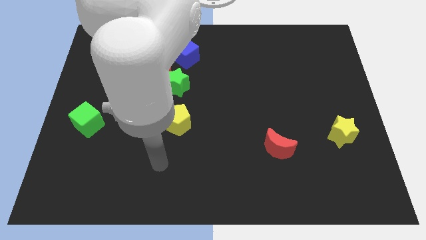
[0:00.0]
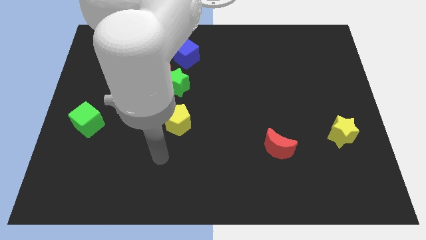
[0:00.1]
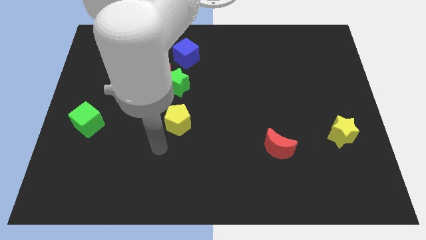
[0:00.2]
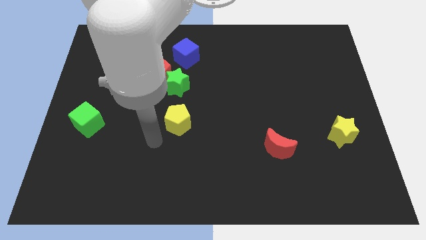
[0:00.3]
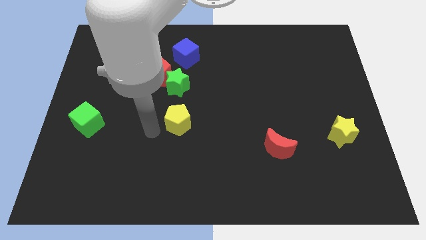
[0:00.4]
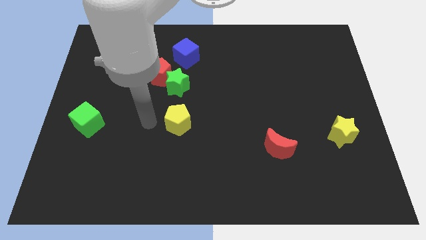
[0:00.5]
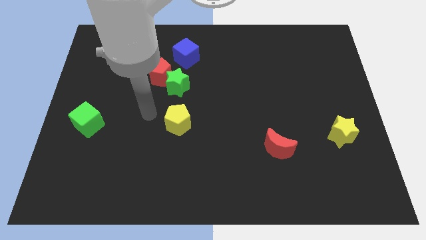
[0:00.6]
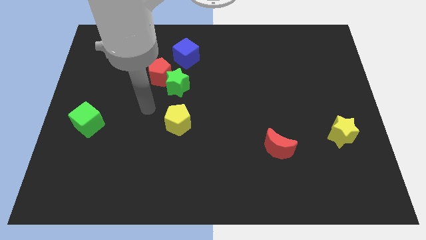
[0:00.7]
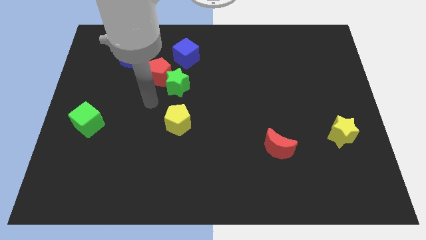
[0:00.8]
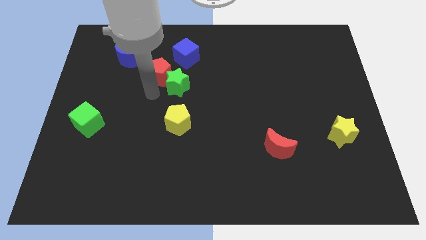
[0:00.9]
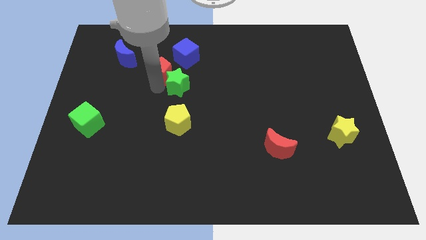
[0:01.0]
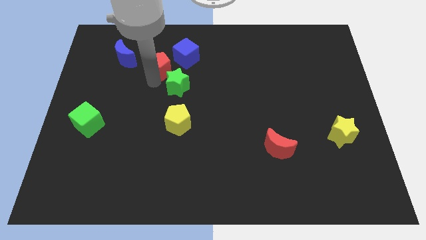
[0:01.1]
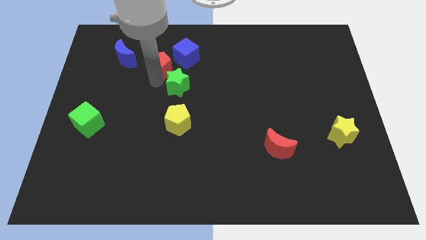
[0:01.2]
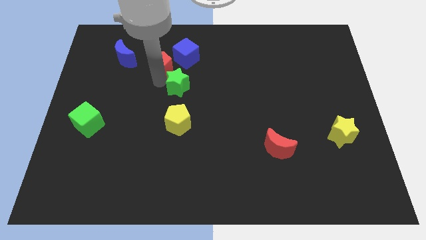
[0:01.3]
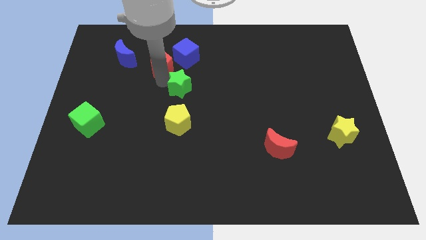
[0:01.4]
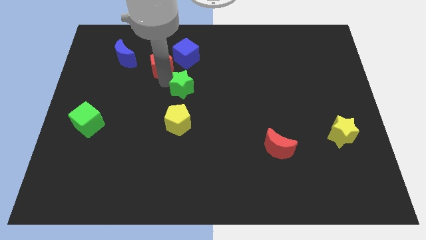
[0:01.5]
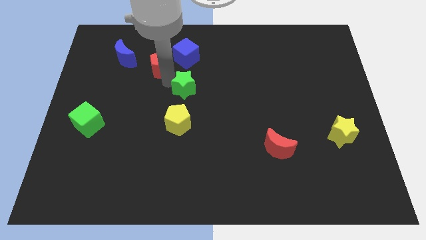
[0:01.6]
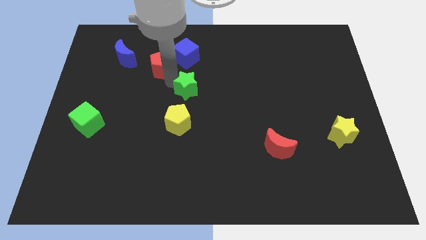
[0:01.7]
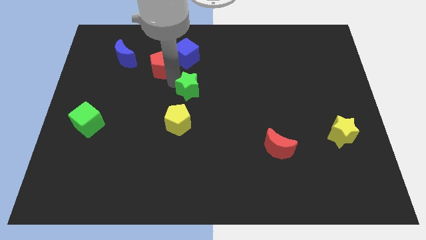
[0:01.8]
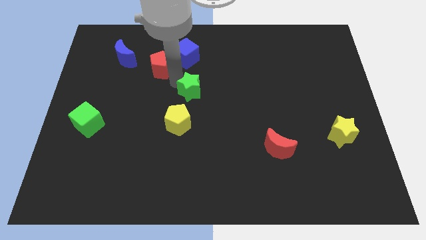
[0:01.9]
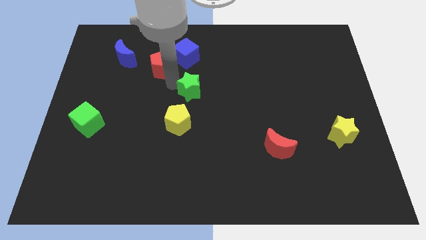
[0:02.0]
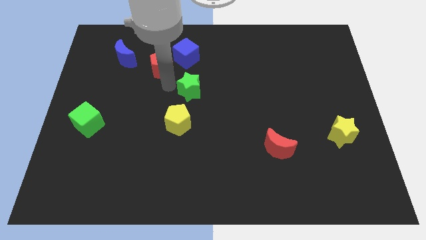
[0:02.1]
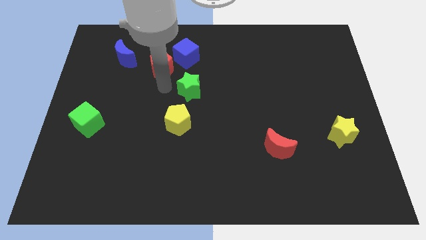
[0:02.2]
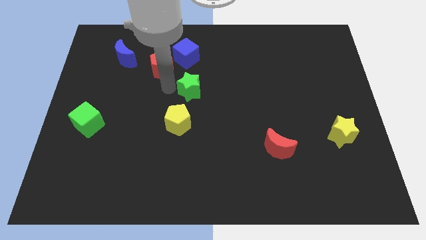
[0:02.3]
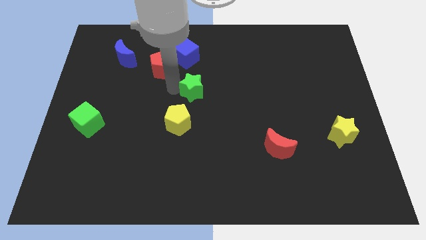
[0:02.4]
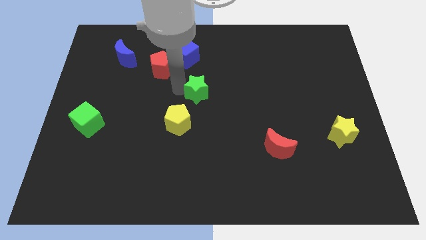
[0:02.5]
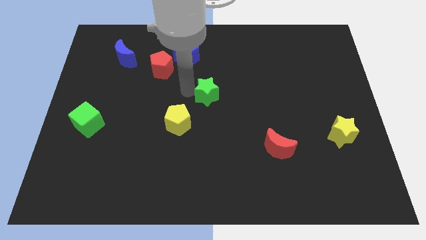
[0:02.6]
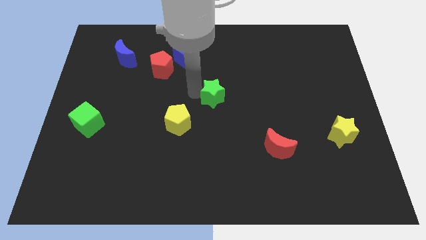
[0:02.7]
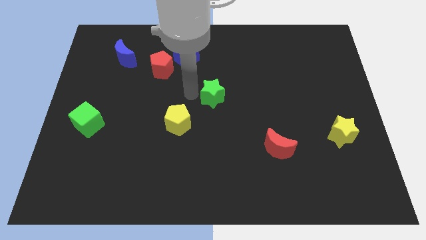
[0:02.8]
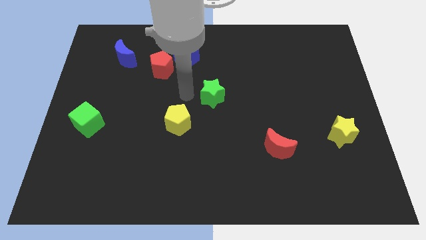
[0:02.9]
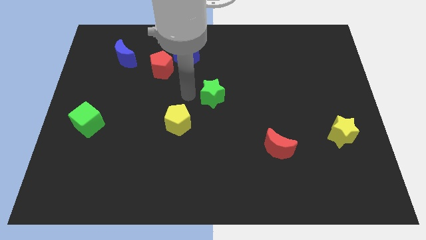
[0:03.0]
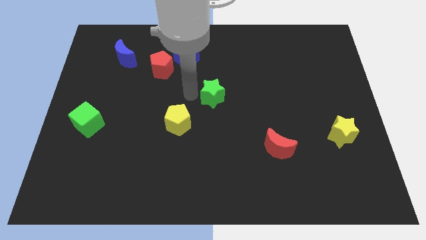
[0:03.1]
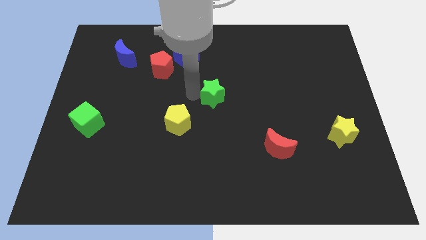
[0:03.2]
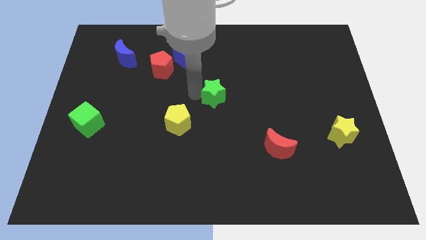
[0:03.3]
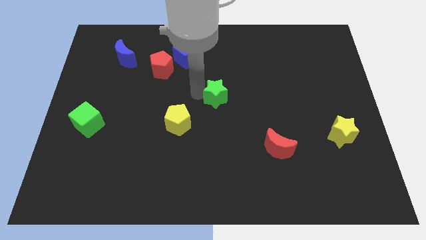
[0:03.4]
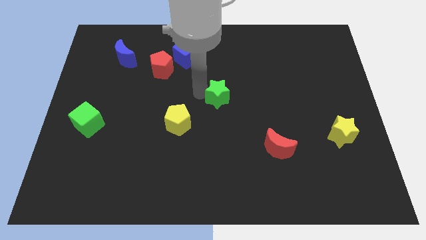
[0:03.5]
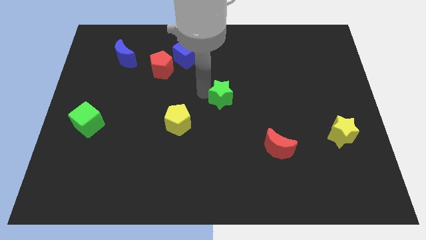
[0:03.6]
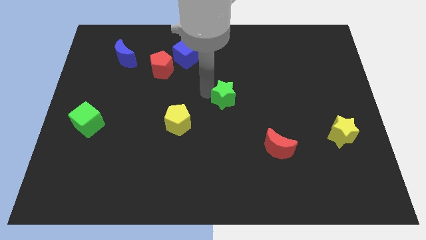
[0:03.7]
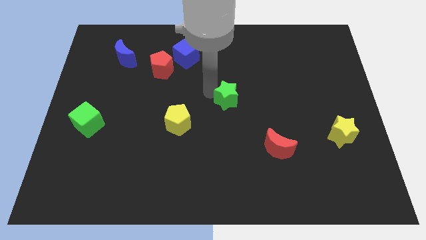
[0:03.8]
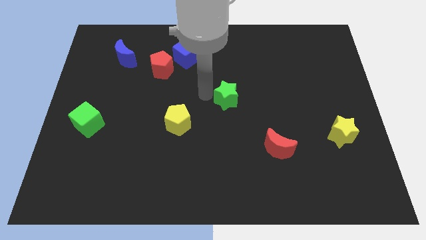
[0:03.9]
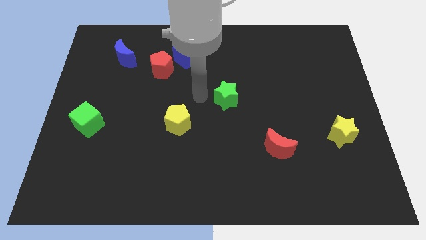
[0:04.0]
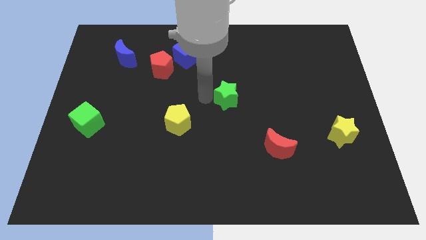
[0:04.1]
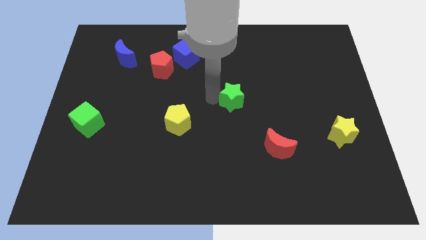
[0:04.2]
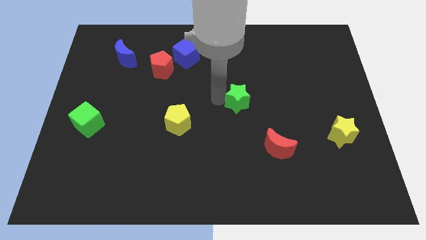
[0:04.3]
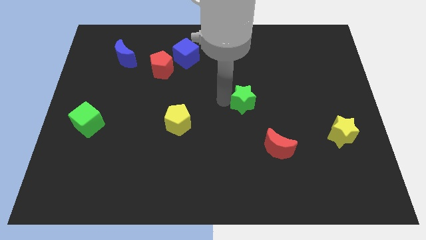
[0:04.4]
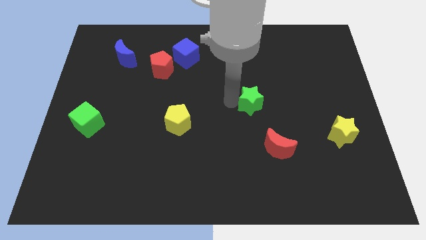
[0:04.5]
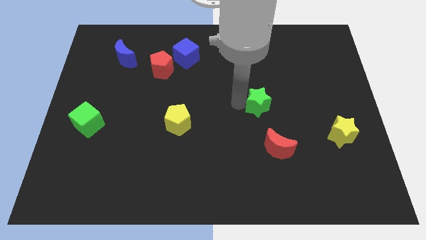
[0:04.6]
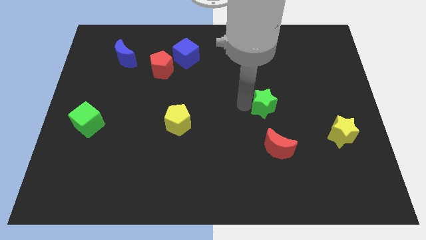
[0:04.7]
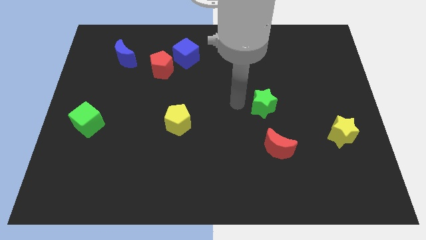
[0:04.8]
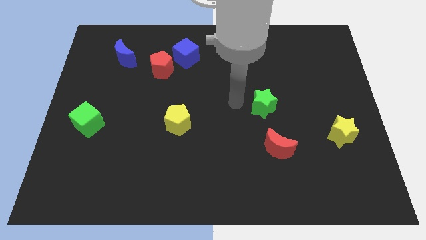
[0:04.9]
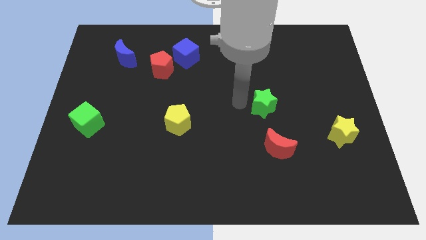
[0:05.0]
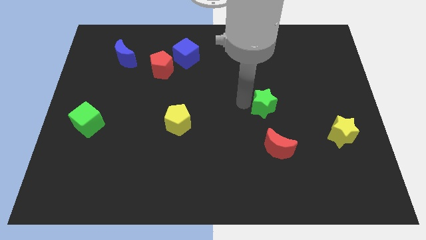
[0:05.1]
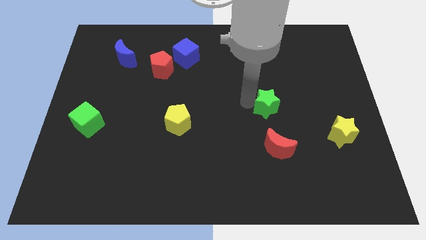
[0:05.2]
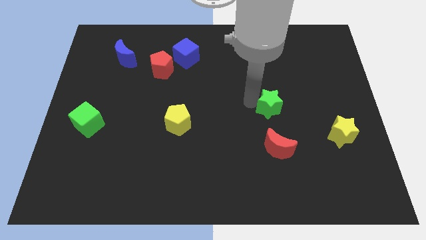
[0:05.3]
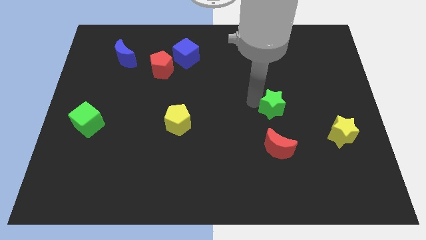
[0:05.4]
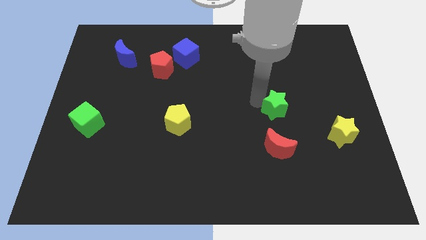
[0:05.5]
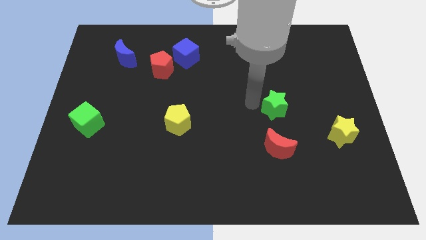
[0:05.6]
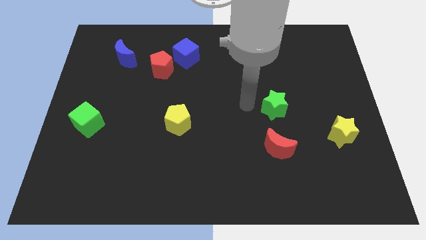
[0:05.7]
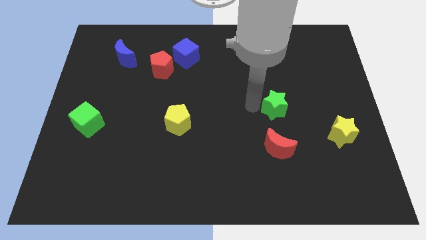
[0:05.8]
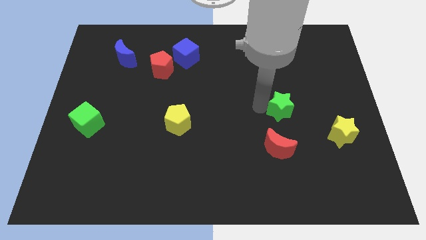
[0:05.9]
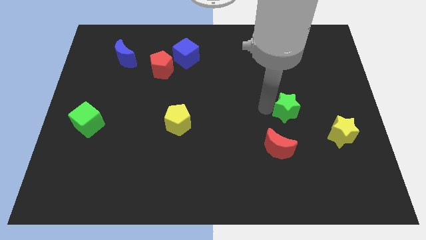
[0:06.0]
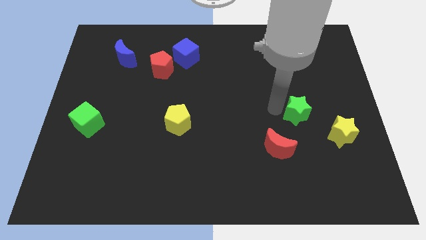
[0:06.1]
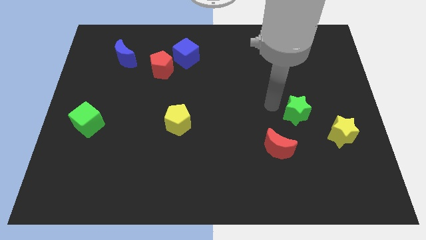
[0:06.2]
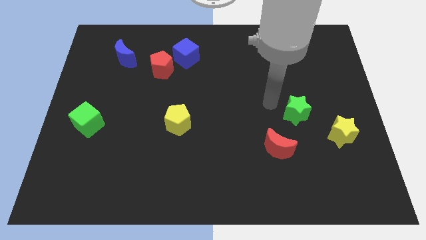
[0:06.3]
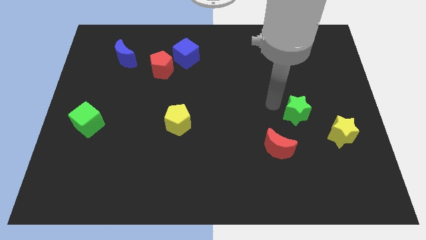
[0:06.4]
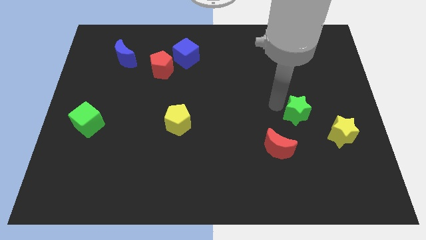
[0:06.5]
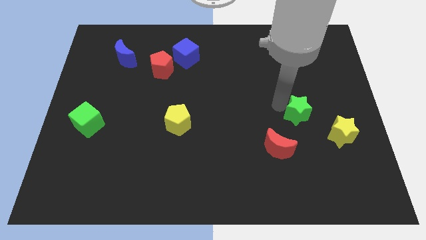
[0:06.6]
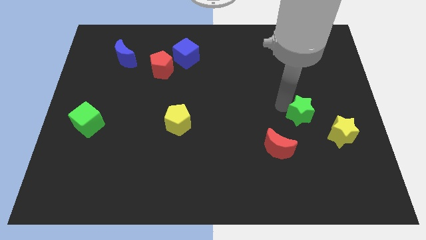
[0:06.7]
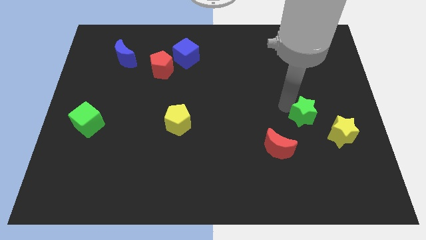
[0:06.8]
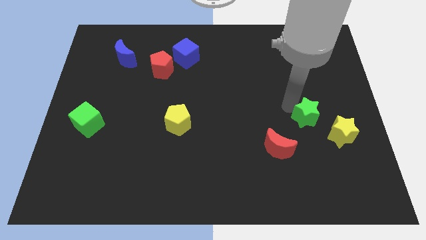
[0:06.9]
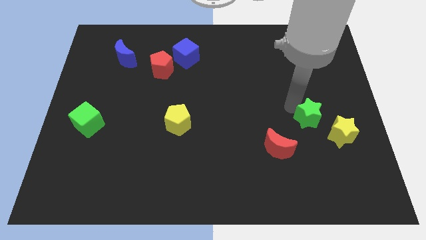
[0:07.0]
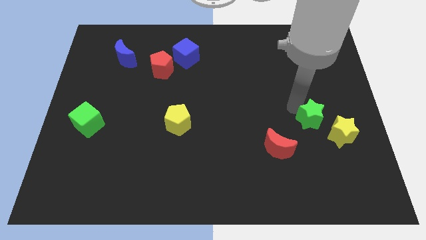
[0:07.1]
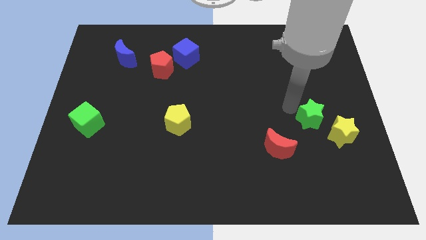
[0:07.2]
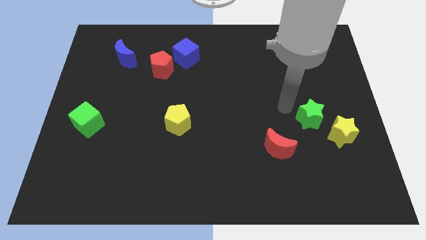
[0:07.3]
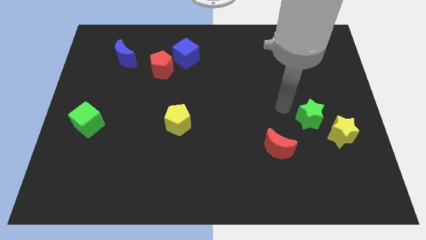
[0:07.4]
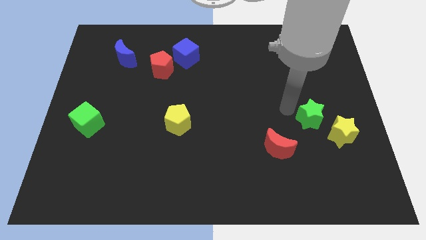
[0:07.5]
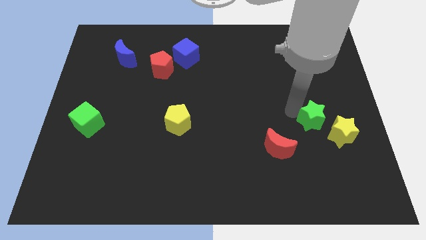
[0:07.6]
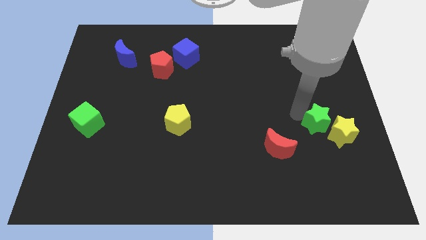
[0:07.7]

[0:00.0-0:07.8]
slide the green star towards the yellow star
